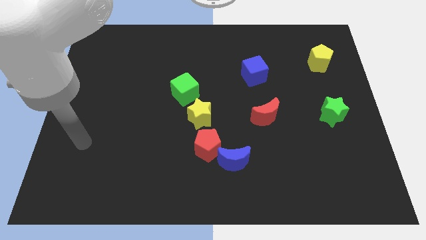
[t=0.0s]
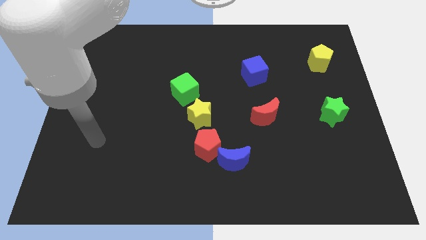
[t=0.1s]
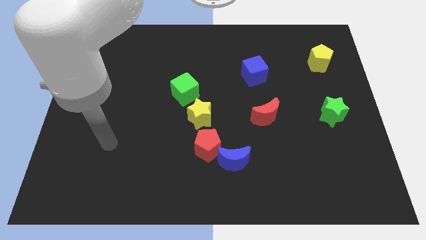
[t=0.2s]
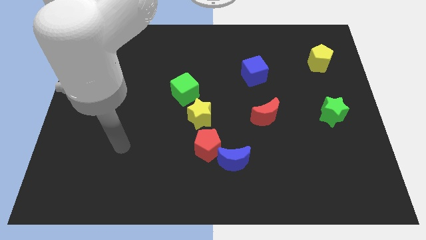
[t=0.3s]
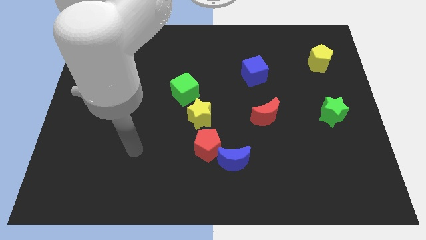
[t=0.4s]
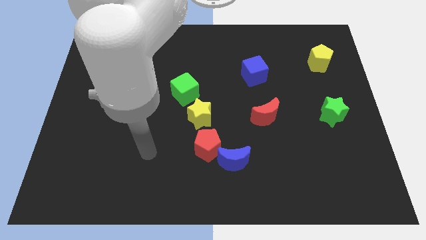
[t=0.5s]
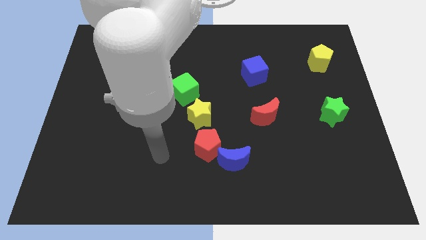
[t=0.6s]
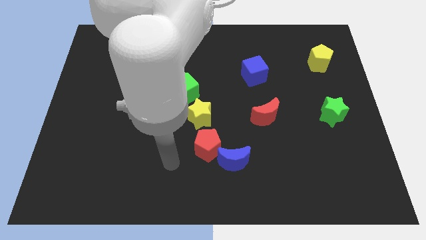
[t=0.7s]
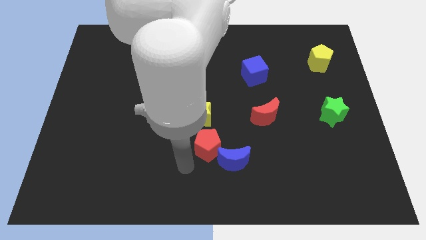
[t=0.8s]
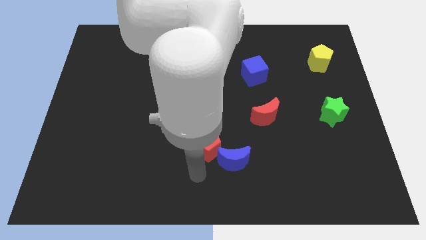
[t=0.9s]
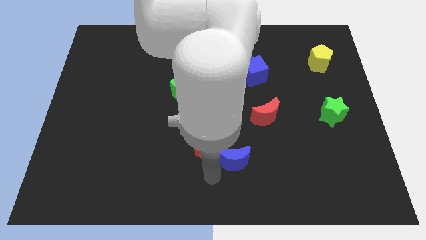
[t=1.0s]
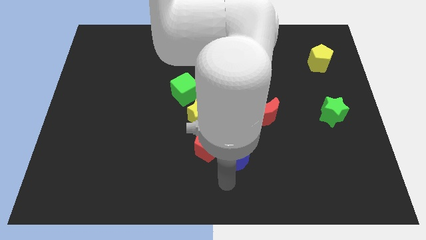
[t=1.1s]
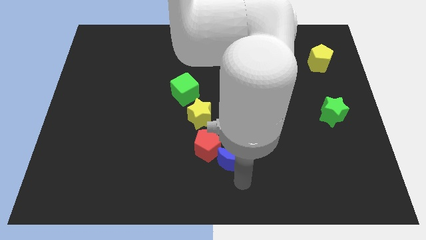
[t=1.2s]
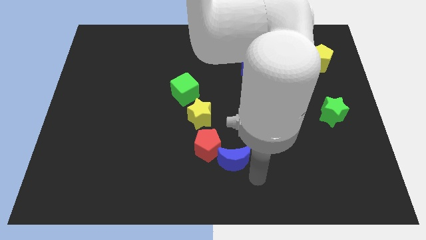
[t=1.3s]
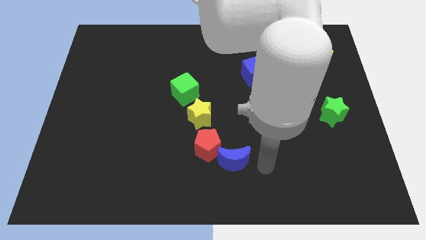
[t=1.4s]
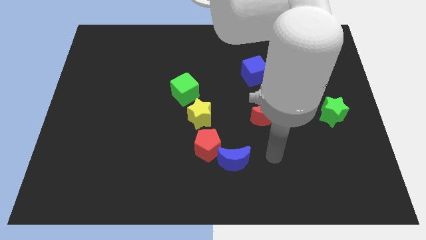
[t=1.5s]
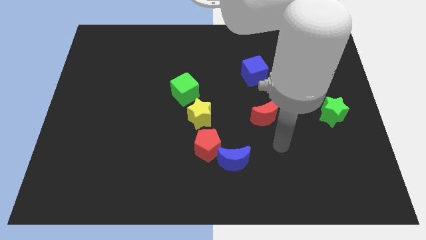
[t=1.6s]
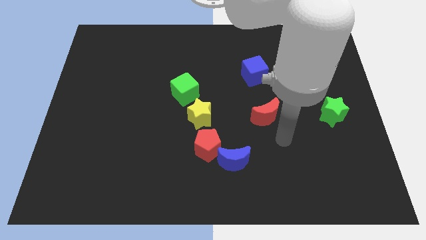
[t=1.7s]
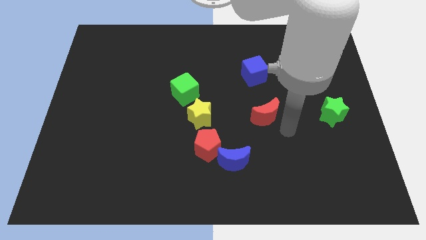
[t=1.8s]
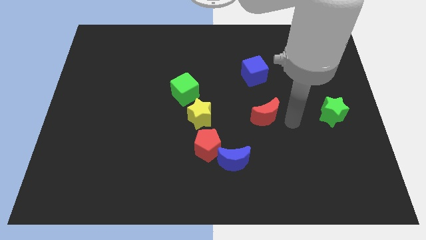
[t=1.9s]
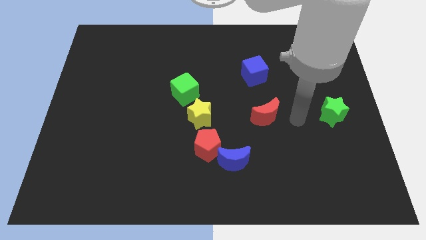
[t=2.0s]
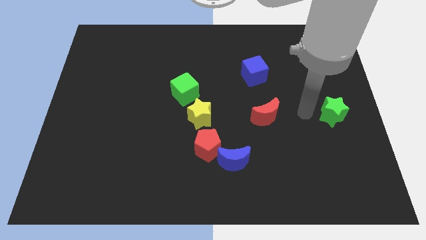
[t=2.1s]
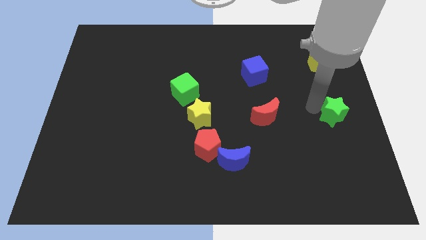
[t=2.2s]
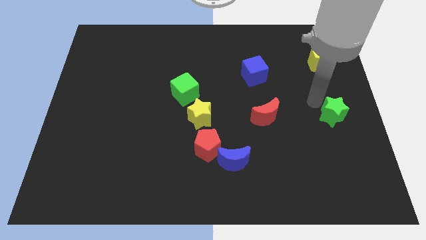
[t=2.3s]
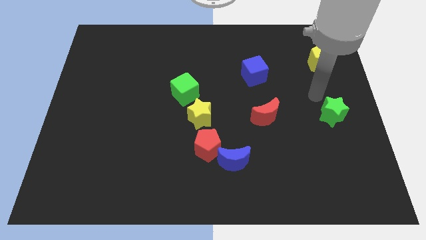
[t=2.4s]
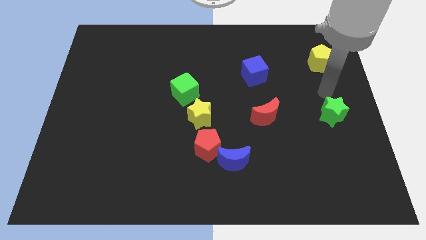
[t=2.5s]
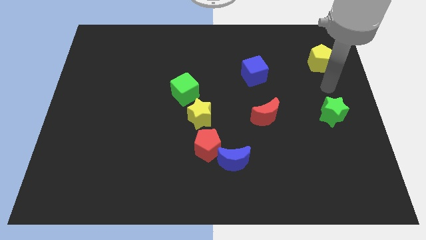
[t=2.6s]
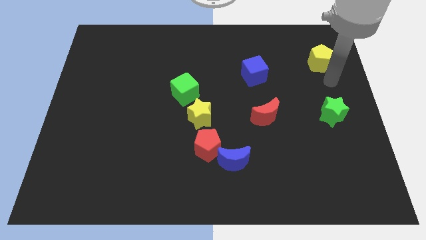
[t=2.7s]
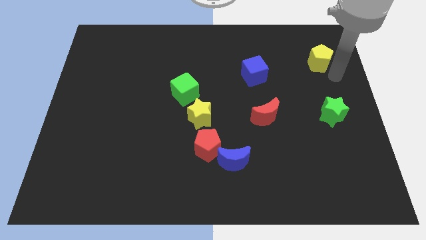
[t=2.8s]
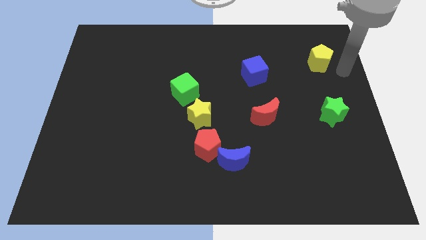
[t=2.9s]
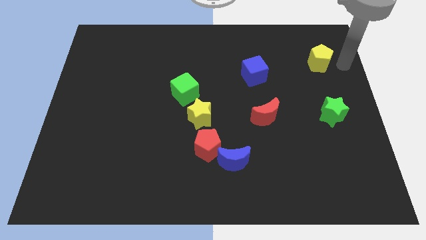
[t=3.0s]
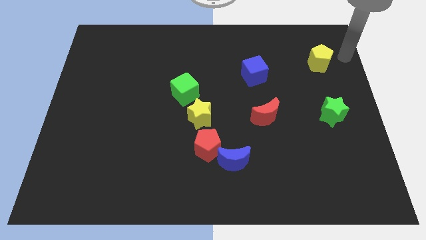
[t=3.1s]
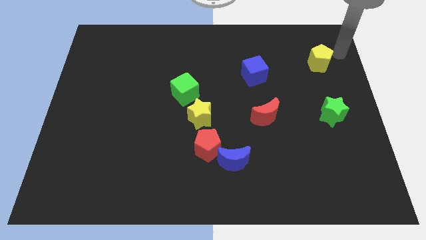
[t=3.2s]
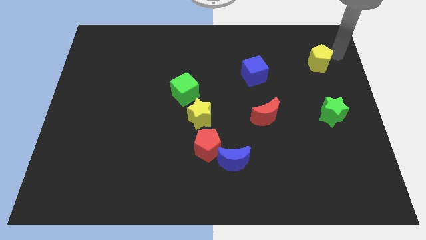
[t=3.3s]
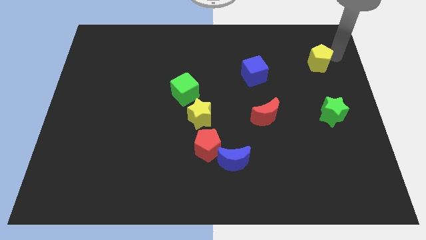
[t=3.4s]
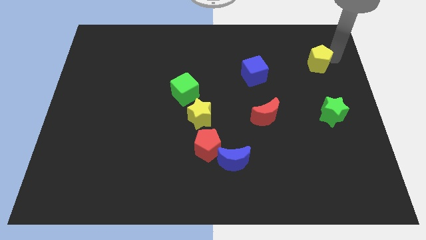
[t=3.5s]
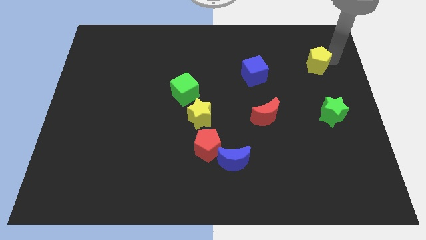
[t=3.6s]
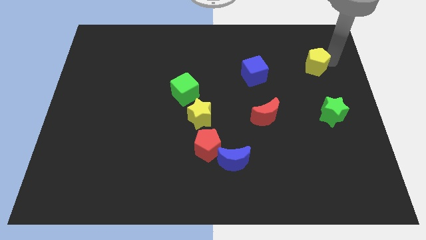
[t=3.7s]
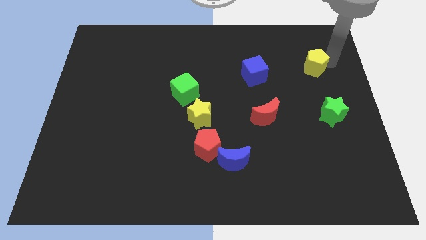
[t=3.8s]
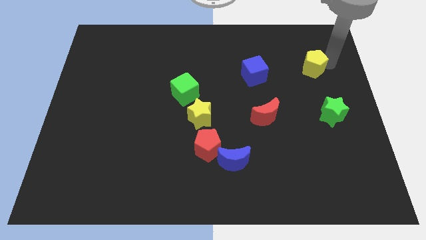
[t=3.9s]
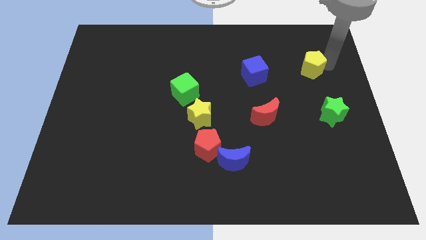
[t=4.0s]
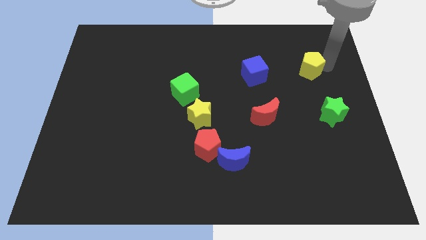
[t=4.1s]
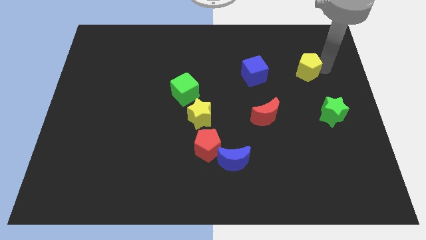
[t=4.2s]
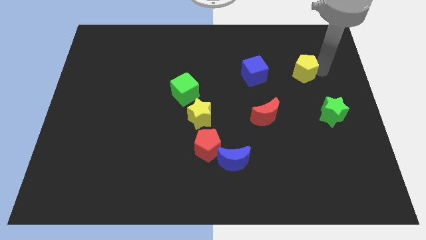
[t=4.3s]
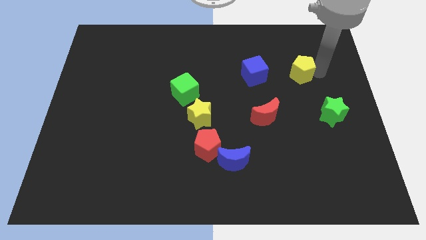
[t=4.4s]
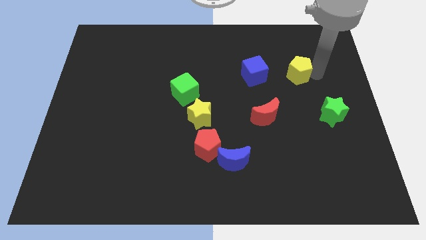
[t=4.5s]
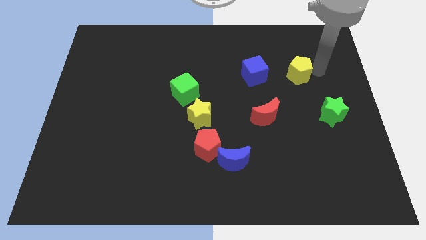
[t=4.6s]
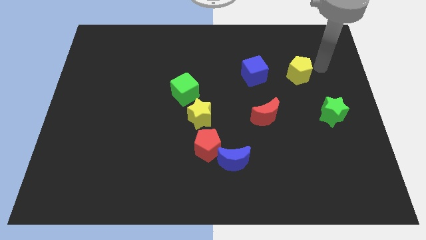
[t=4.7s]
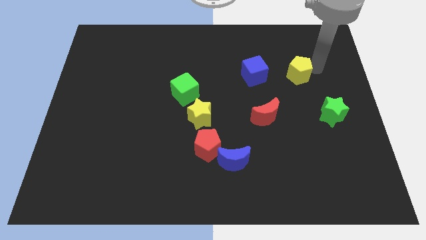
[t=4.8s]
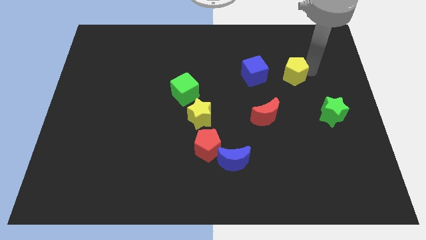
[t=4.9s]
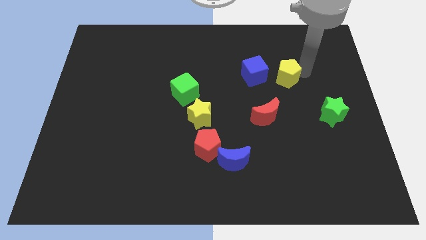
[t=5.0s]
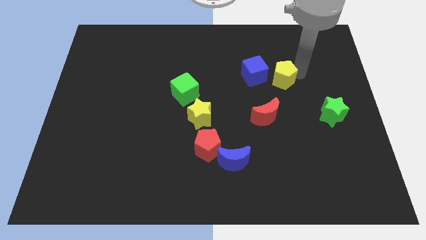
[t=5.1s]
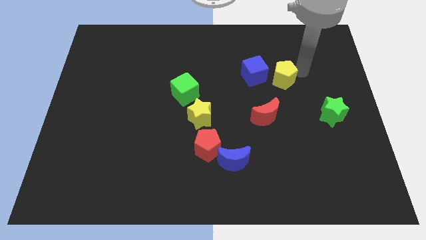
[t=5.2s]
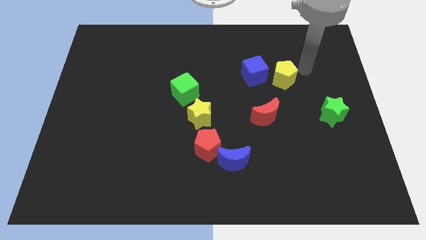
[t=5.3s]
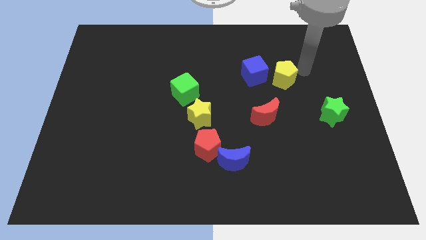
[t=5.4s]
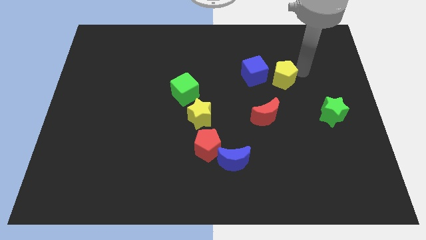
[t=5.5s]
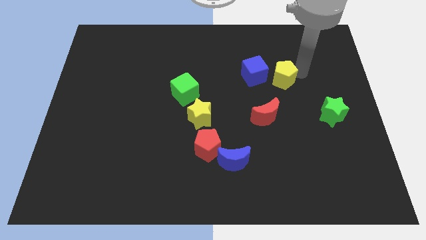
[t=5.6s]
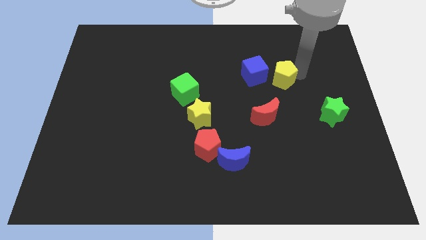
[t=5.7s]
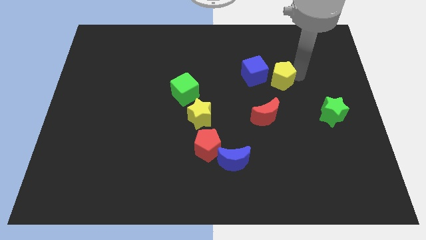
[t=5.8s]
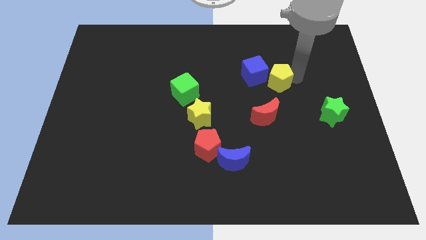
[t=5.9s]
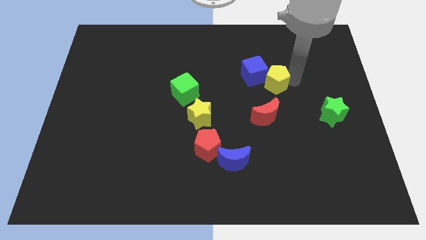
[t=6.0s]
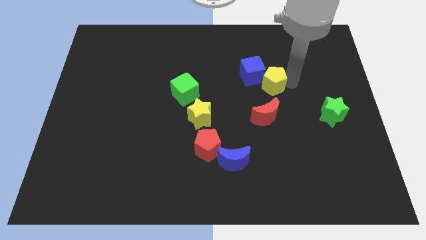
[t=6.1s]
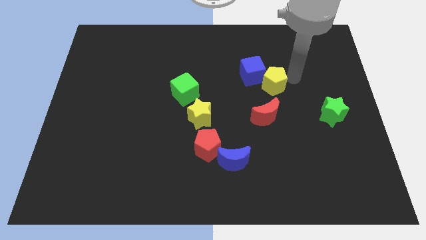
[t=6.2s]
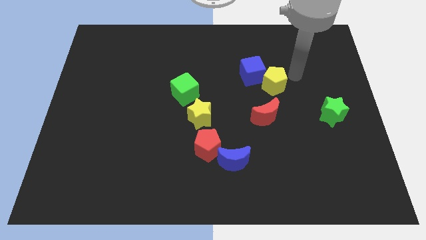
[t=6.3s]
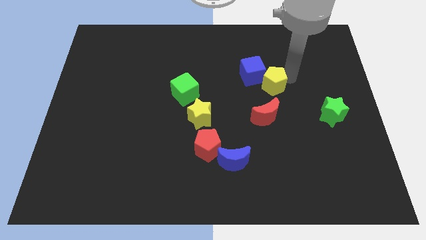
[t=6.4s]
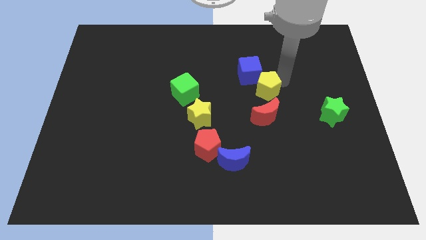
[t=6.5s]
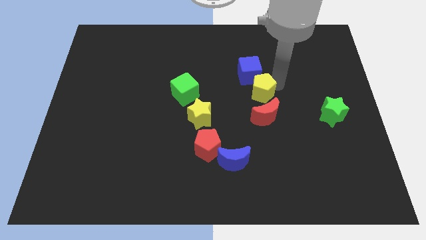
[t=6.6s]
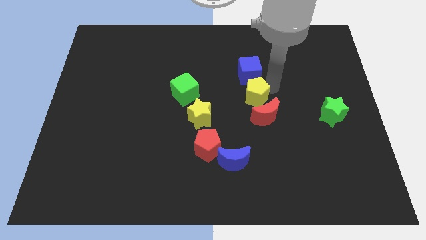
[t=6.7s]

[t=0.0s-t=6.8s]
push the yellow pentagon to the top left of the red moon

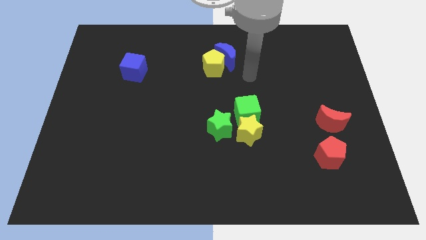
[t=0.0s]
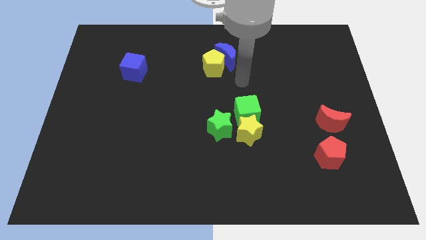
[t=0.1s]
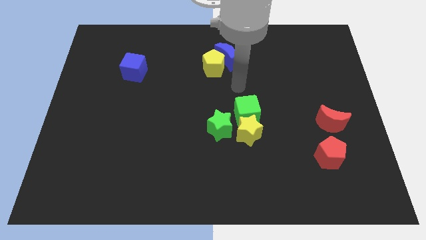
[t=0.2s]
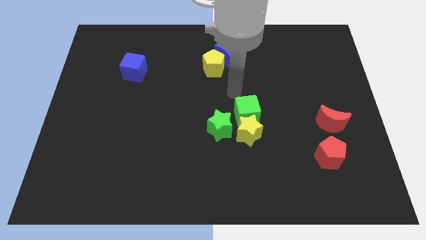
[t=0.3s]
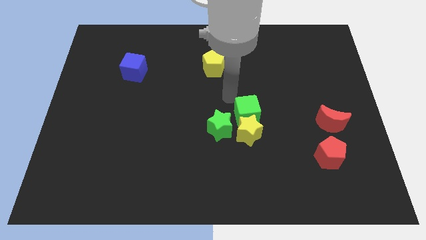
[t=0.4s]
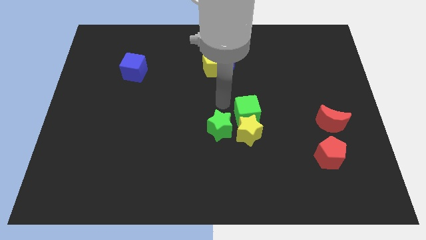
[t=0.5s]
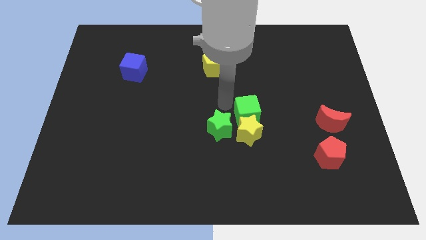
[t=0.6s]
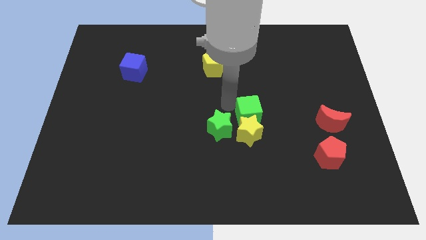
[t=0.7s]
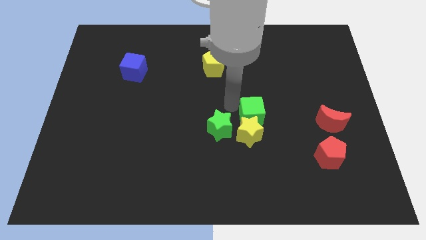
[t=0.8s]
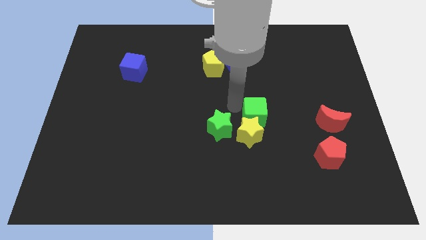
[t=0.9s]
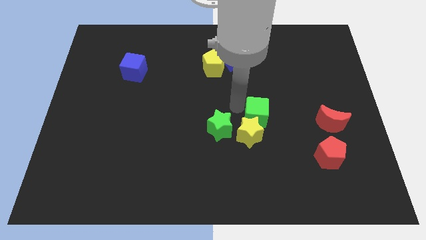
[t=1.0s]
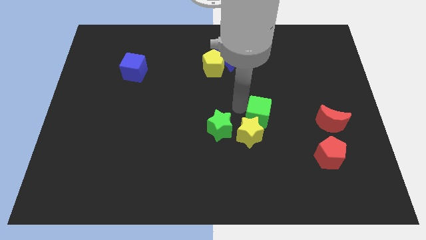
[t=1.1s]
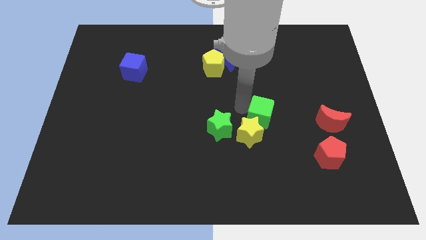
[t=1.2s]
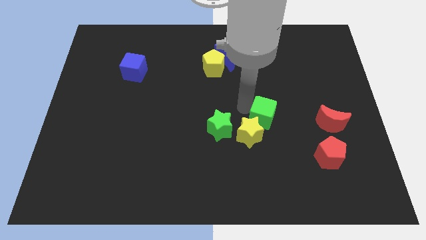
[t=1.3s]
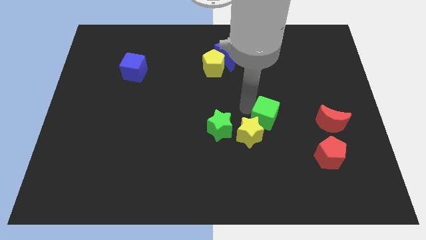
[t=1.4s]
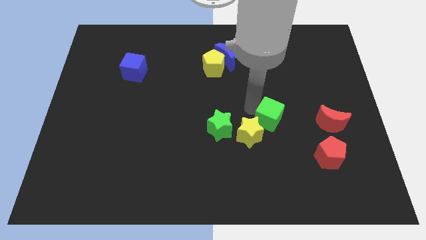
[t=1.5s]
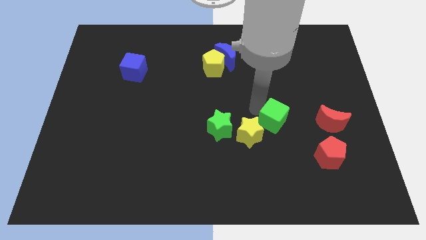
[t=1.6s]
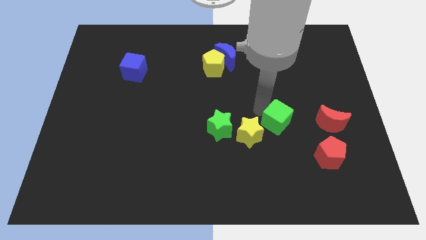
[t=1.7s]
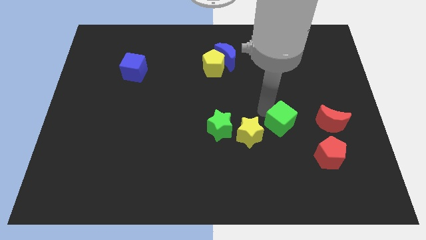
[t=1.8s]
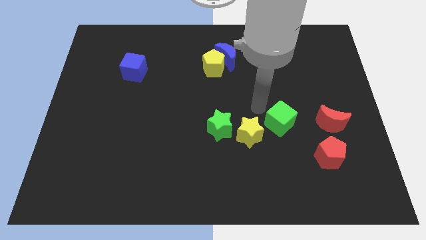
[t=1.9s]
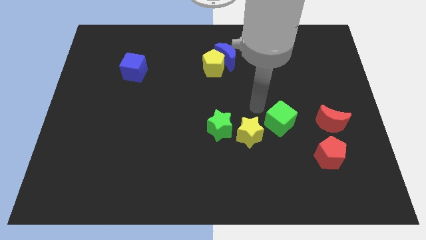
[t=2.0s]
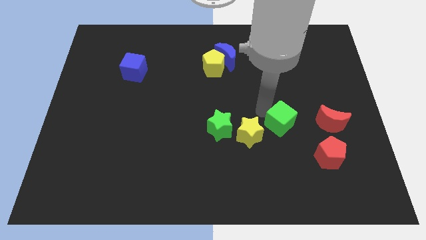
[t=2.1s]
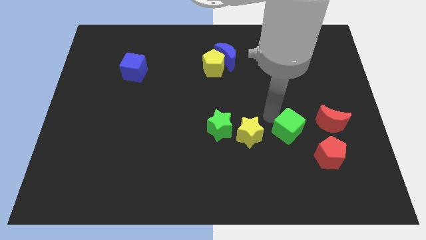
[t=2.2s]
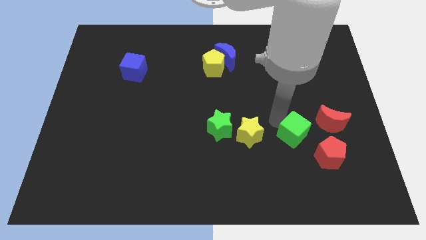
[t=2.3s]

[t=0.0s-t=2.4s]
slide the green cube to the bottom left side of the red moon
